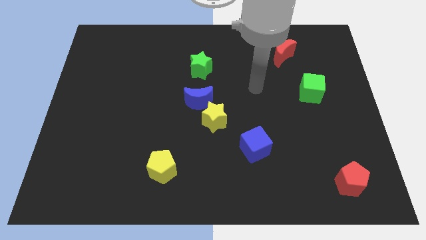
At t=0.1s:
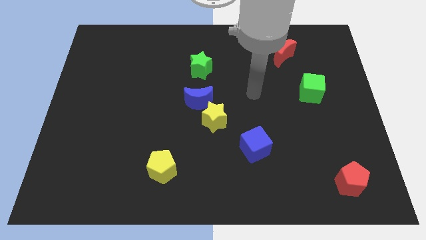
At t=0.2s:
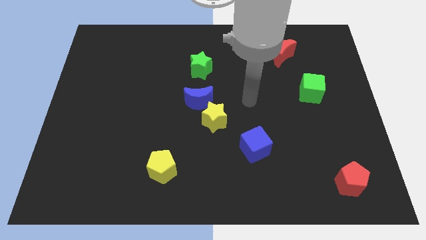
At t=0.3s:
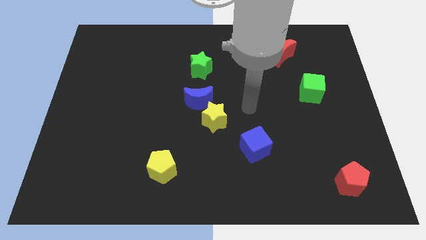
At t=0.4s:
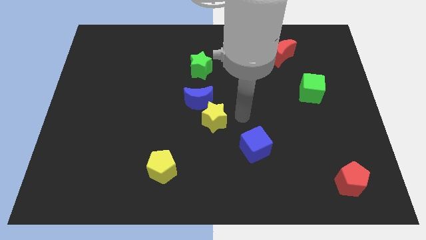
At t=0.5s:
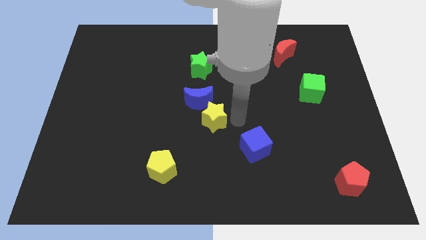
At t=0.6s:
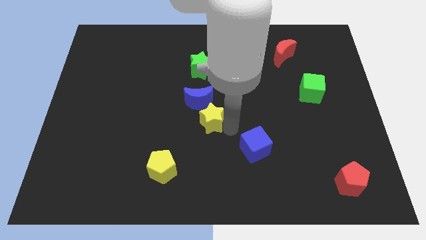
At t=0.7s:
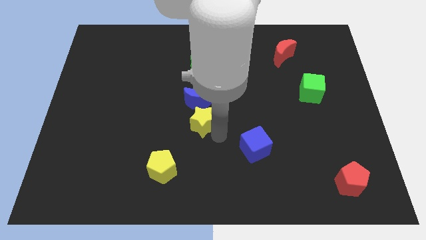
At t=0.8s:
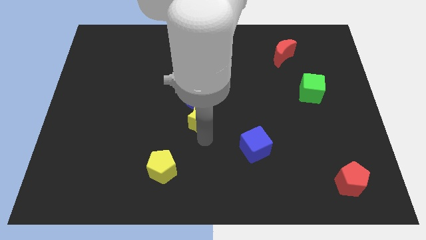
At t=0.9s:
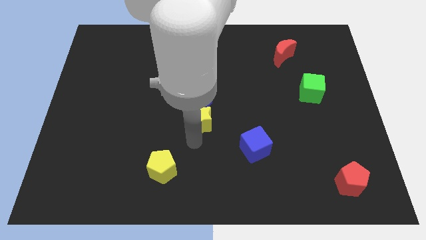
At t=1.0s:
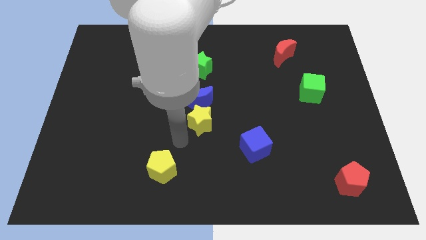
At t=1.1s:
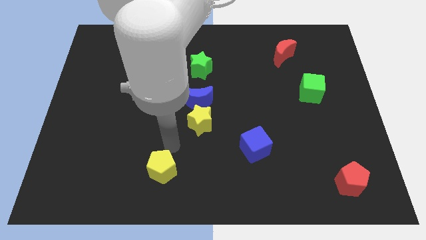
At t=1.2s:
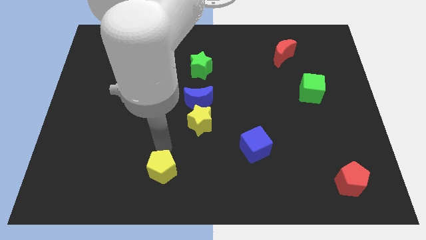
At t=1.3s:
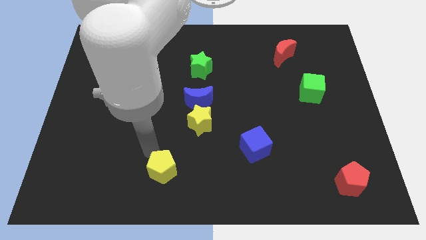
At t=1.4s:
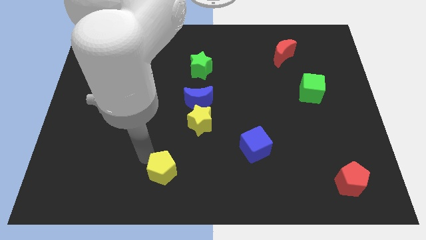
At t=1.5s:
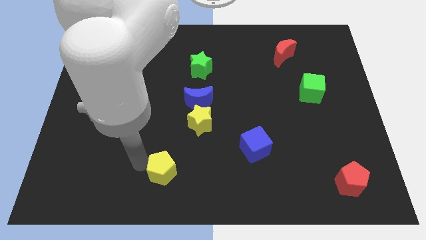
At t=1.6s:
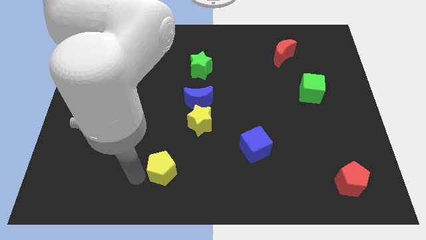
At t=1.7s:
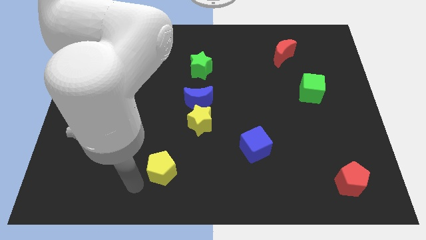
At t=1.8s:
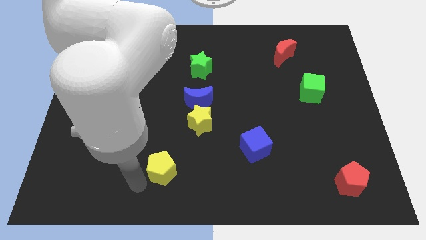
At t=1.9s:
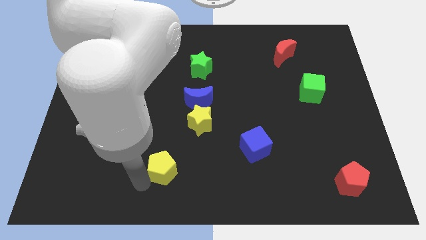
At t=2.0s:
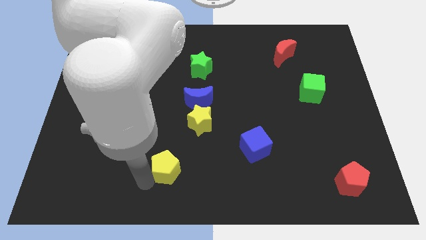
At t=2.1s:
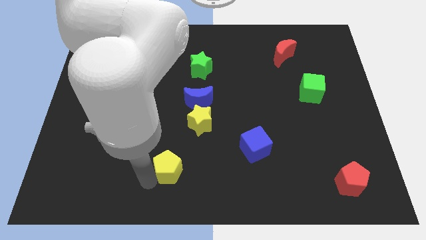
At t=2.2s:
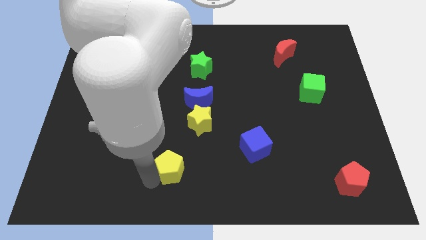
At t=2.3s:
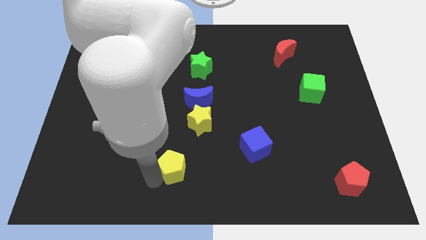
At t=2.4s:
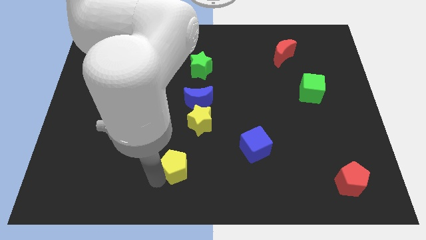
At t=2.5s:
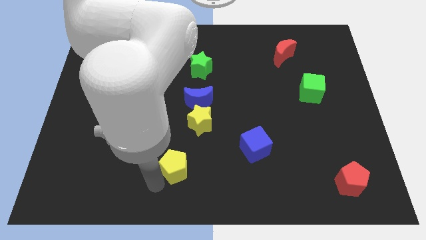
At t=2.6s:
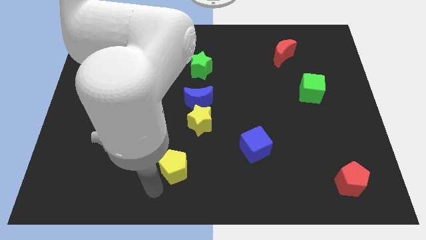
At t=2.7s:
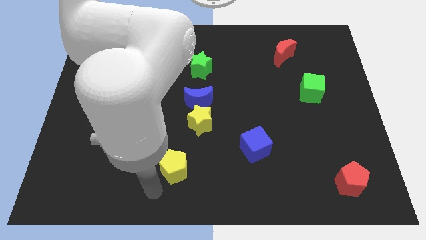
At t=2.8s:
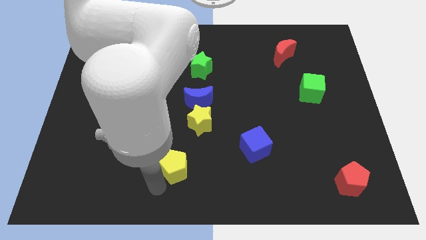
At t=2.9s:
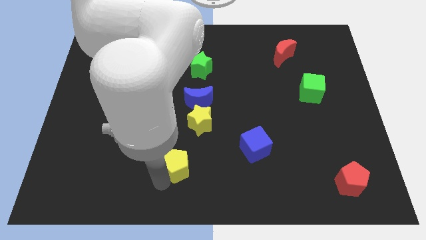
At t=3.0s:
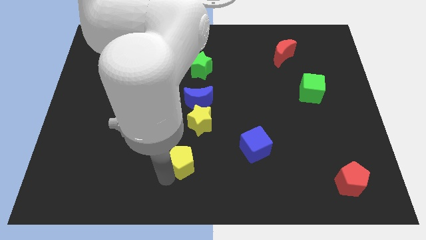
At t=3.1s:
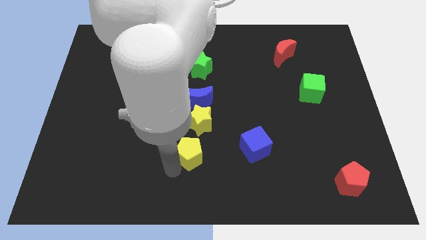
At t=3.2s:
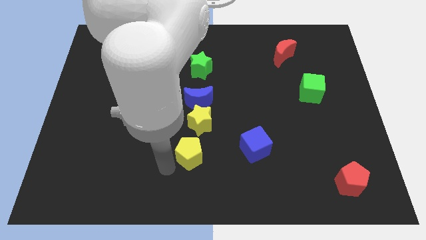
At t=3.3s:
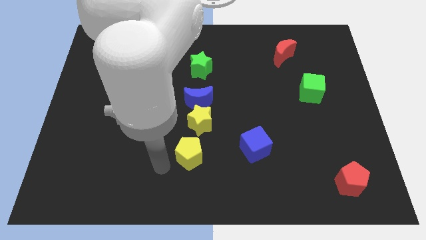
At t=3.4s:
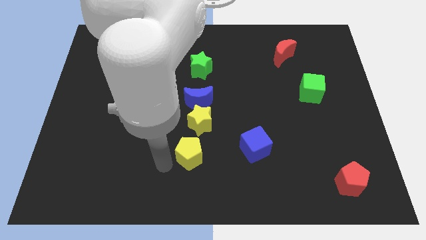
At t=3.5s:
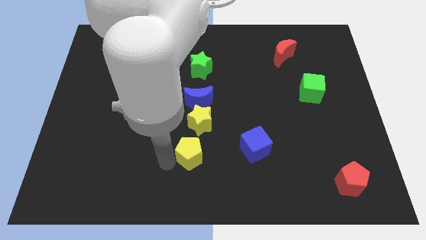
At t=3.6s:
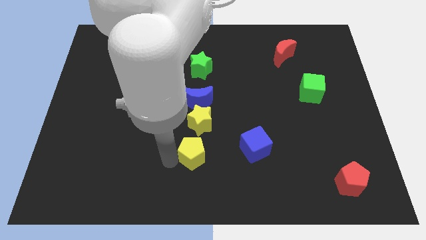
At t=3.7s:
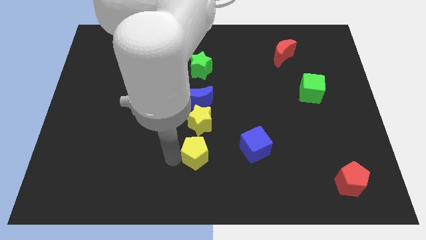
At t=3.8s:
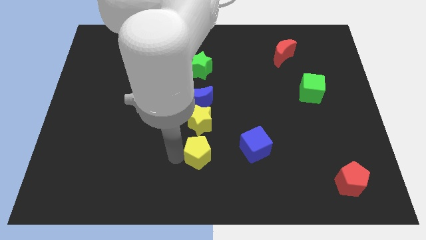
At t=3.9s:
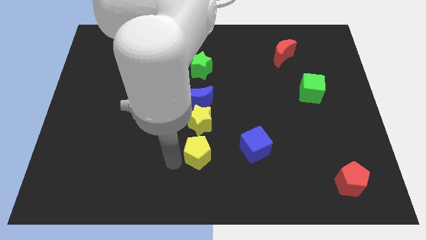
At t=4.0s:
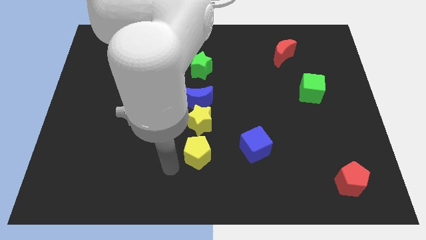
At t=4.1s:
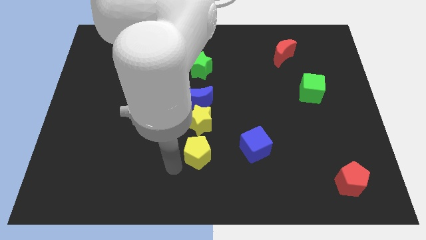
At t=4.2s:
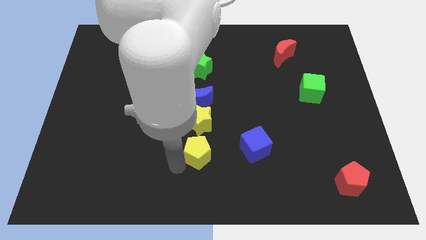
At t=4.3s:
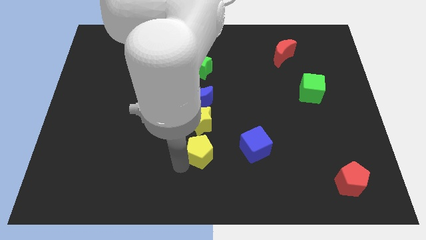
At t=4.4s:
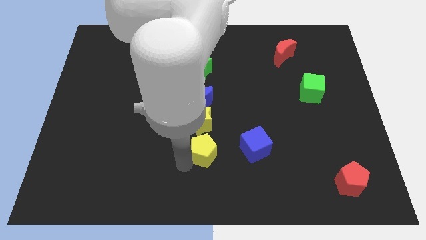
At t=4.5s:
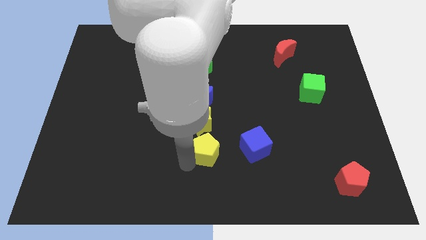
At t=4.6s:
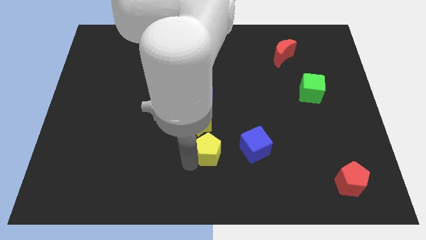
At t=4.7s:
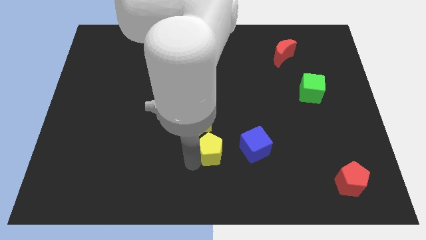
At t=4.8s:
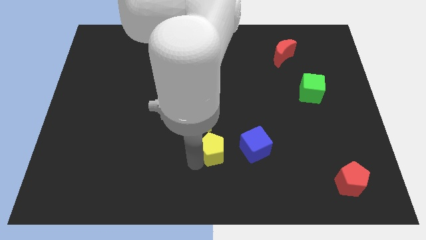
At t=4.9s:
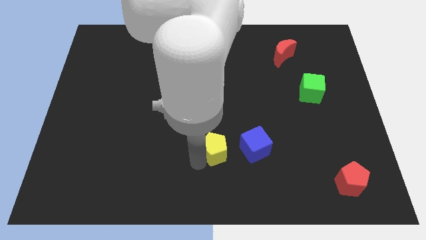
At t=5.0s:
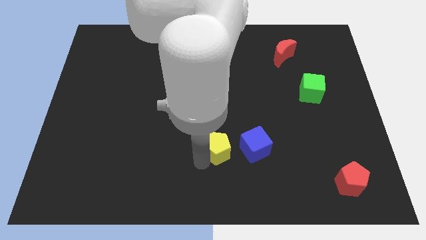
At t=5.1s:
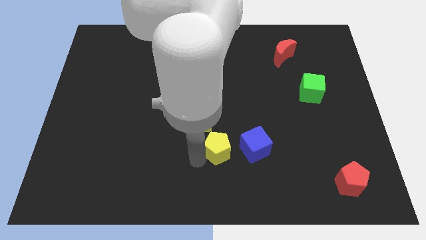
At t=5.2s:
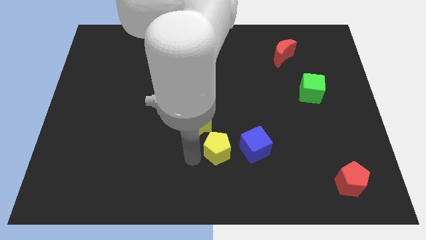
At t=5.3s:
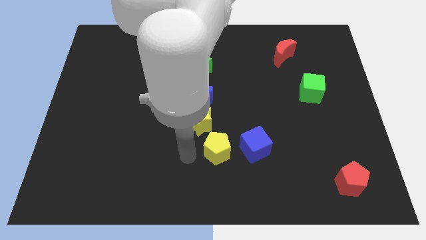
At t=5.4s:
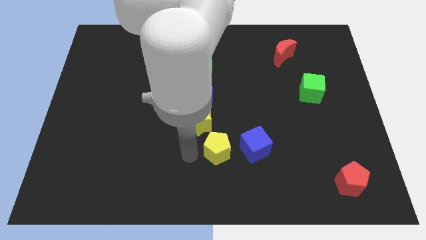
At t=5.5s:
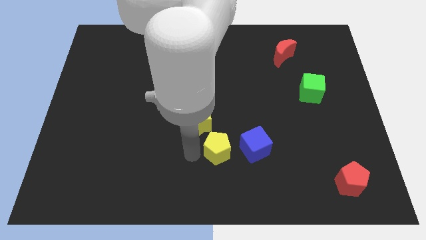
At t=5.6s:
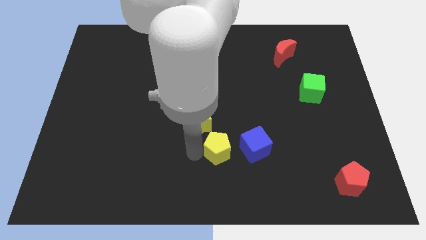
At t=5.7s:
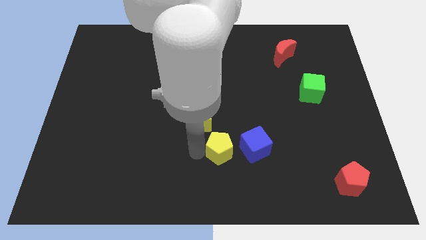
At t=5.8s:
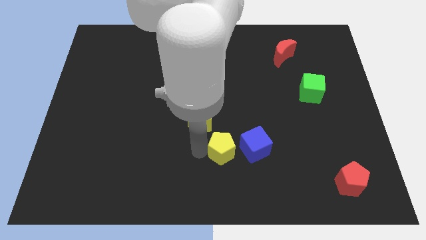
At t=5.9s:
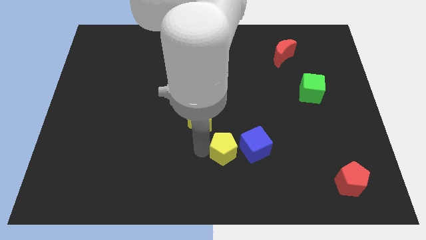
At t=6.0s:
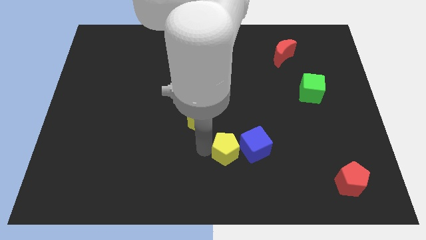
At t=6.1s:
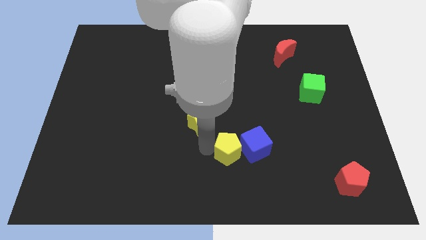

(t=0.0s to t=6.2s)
slide the yellow pentagon close to the blue cube

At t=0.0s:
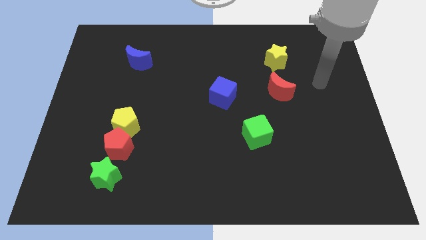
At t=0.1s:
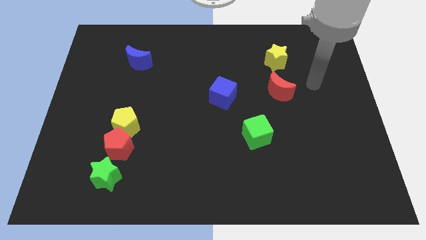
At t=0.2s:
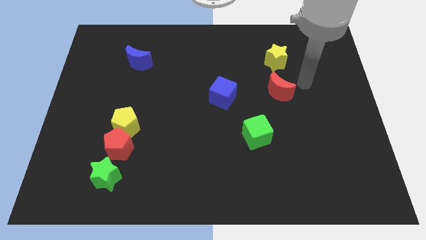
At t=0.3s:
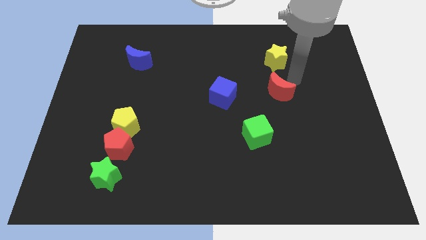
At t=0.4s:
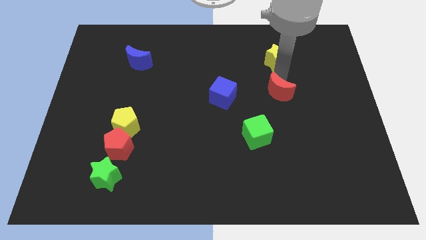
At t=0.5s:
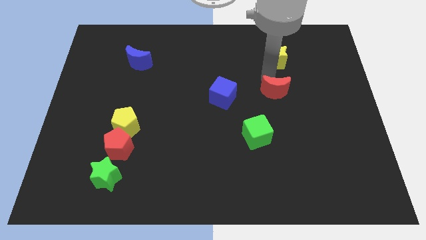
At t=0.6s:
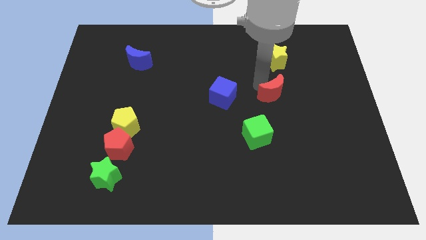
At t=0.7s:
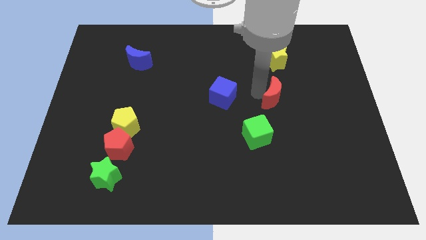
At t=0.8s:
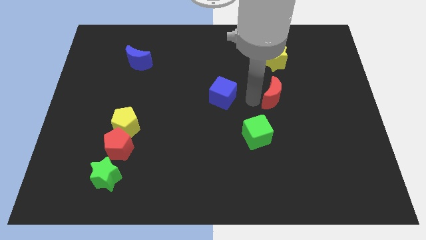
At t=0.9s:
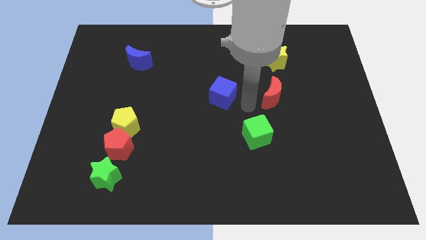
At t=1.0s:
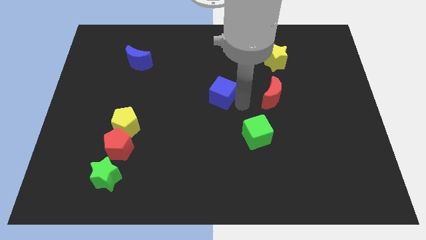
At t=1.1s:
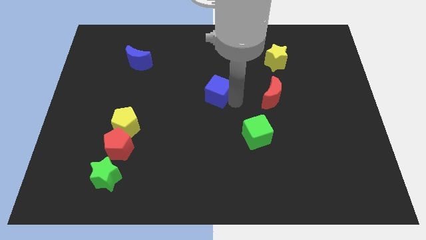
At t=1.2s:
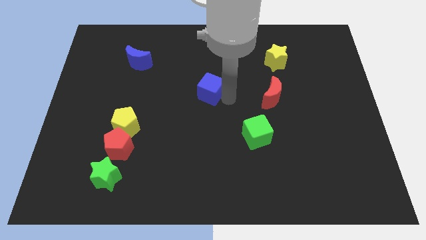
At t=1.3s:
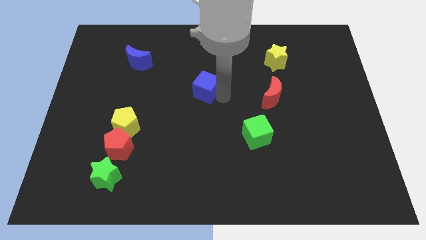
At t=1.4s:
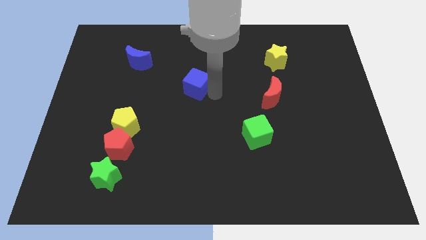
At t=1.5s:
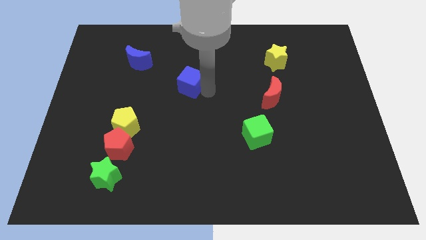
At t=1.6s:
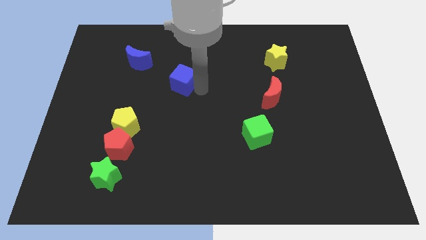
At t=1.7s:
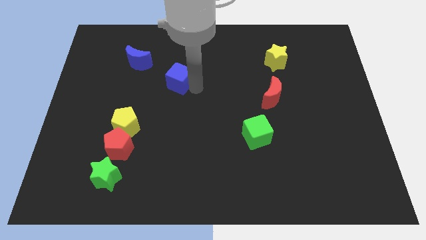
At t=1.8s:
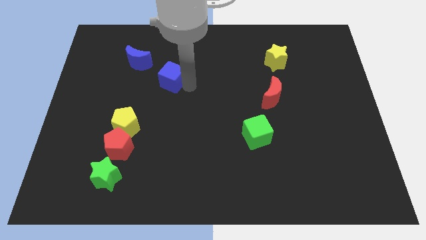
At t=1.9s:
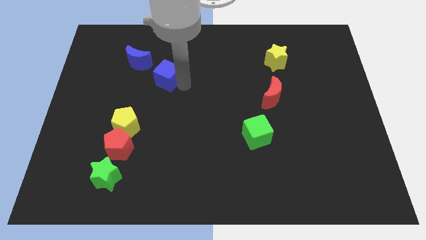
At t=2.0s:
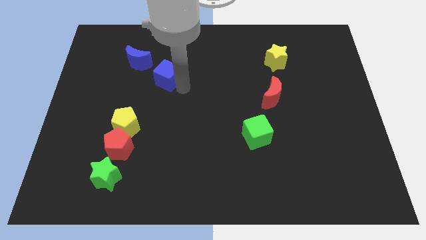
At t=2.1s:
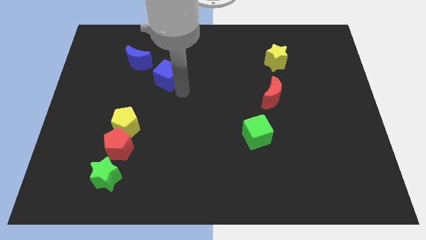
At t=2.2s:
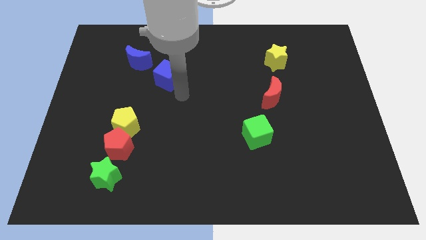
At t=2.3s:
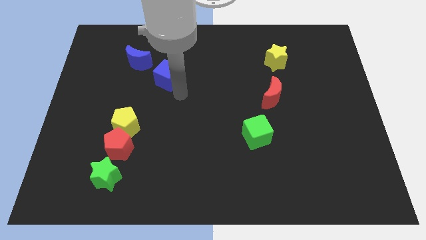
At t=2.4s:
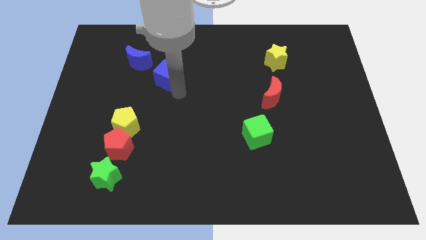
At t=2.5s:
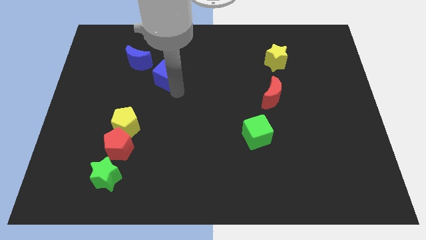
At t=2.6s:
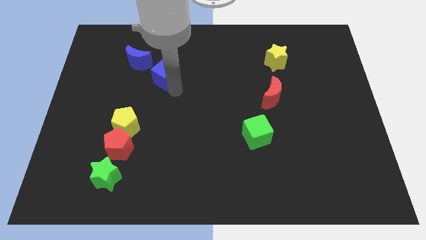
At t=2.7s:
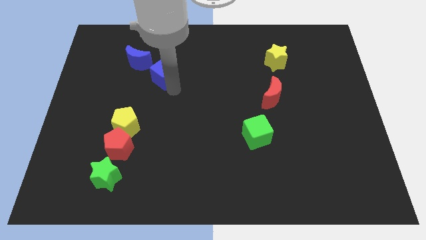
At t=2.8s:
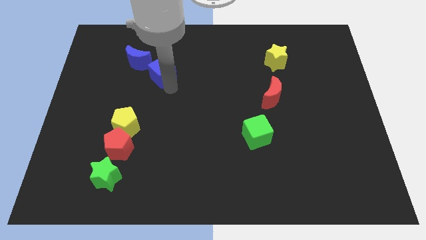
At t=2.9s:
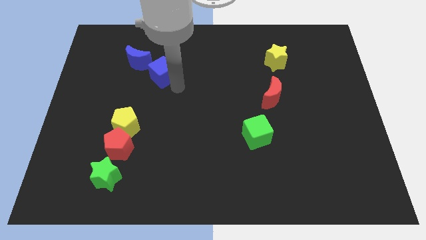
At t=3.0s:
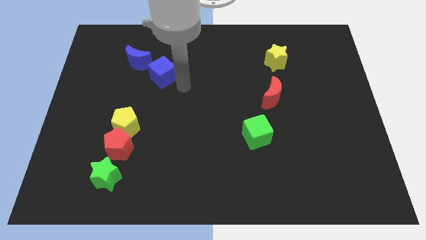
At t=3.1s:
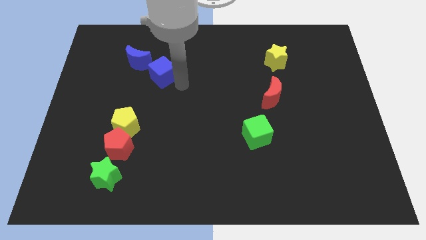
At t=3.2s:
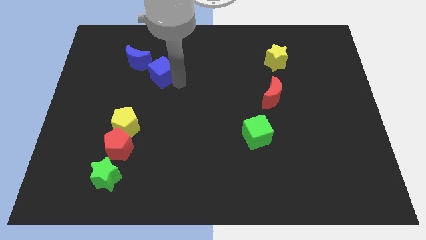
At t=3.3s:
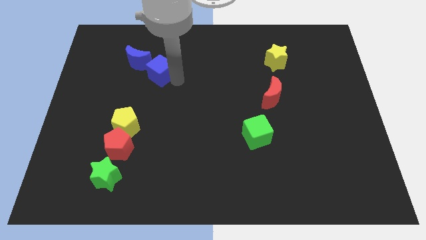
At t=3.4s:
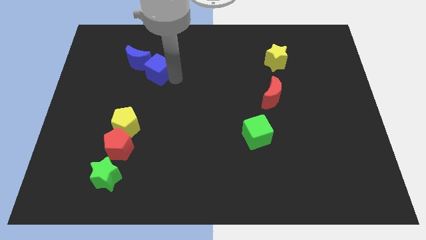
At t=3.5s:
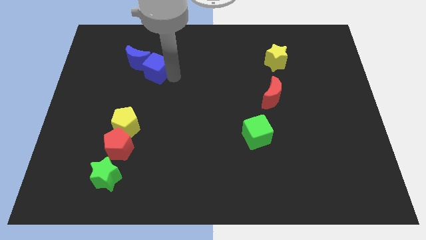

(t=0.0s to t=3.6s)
move the blue cube towards the blue moon
